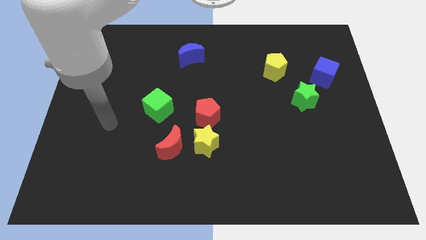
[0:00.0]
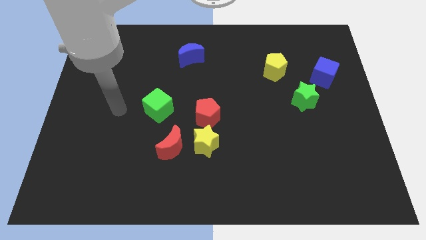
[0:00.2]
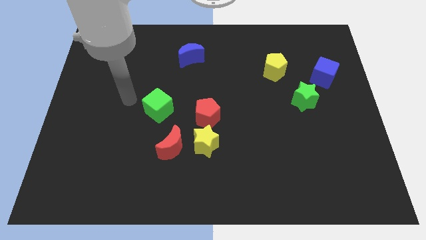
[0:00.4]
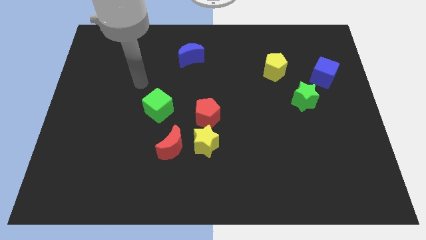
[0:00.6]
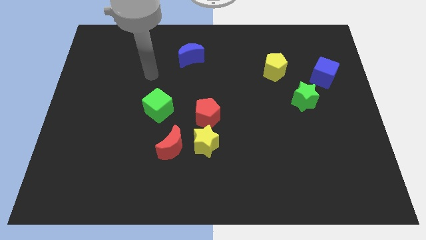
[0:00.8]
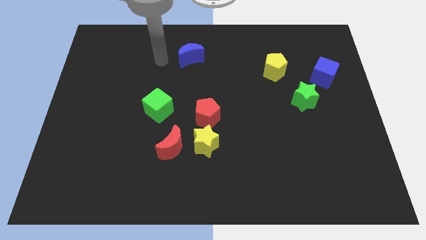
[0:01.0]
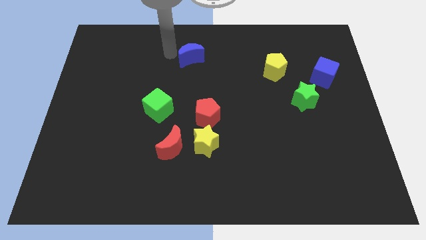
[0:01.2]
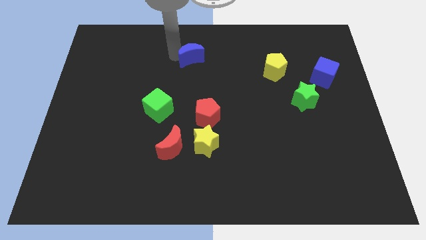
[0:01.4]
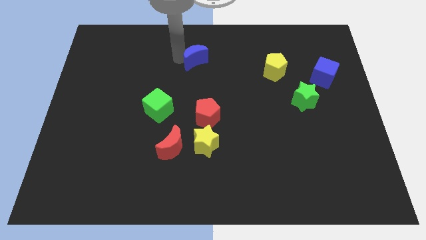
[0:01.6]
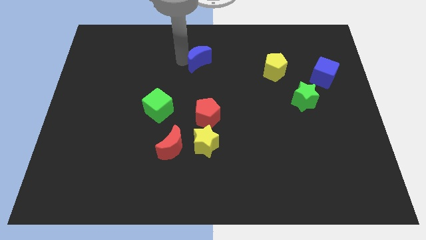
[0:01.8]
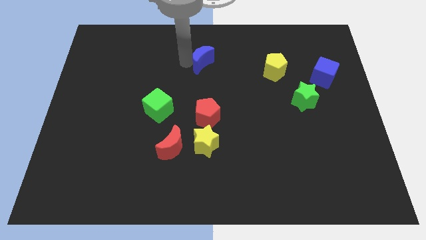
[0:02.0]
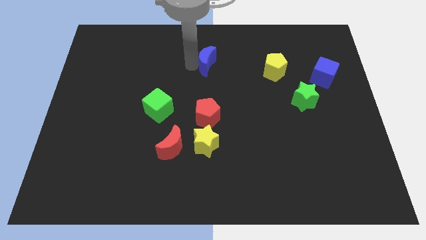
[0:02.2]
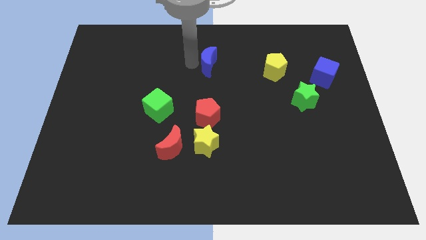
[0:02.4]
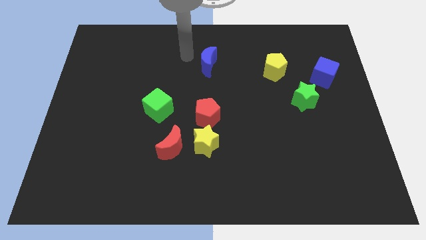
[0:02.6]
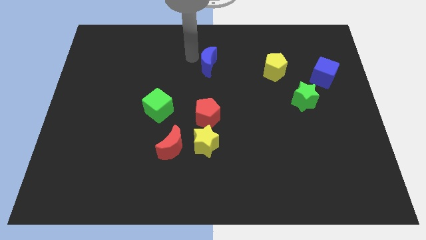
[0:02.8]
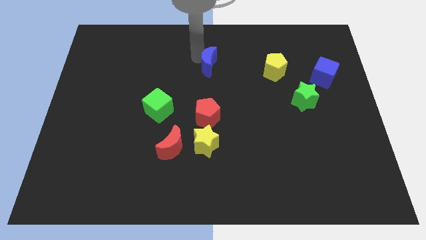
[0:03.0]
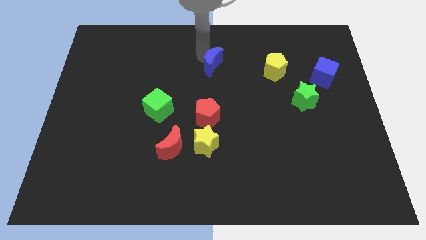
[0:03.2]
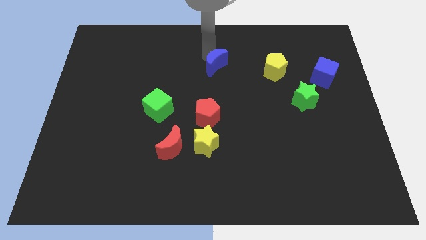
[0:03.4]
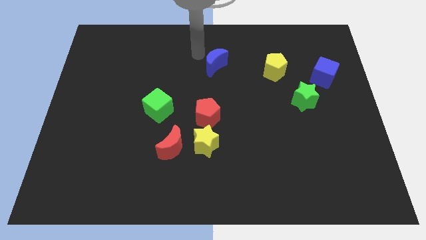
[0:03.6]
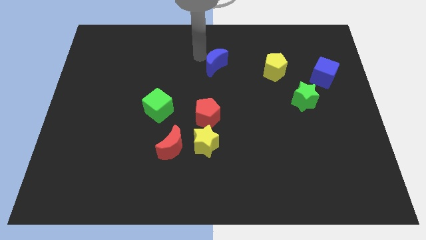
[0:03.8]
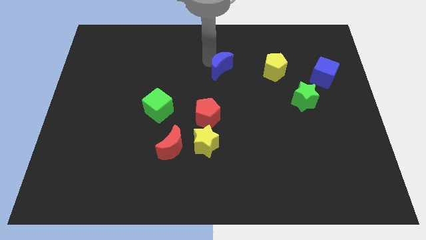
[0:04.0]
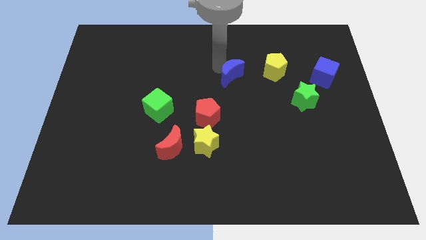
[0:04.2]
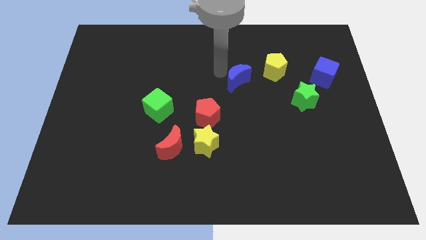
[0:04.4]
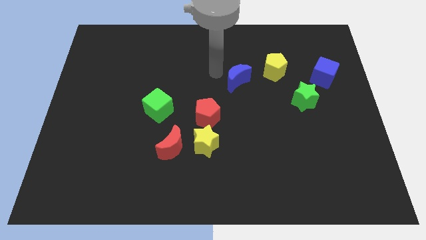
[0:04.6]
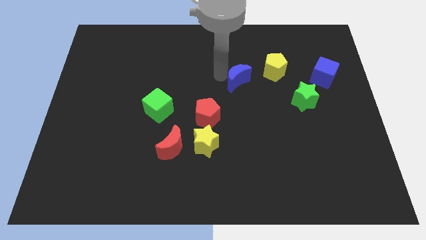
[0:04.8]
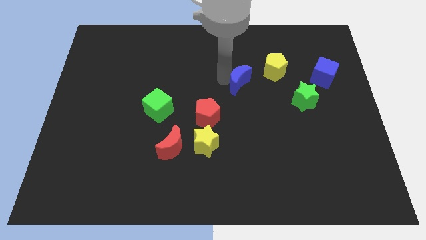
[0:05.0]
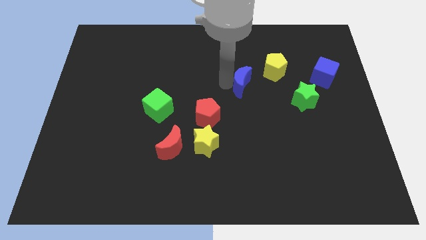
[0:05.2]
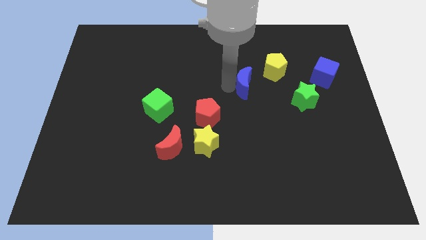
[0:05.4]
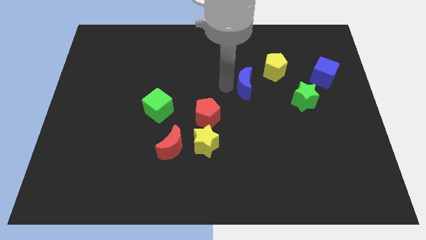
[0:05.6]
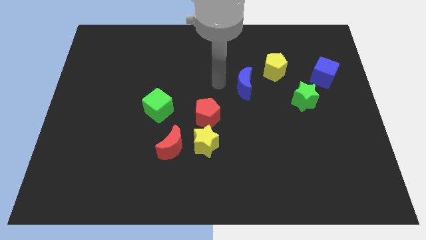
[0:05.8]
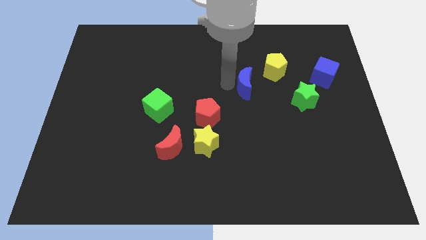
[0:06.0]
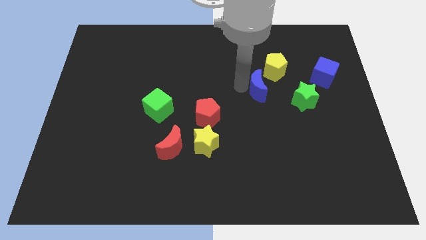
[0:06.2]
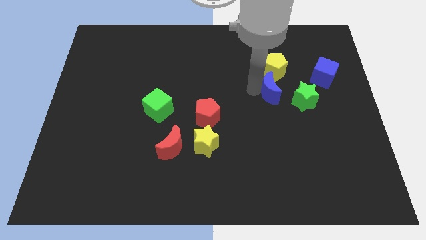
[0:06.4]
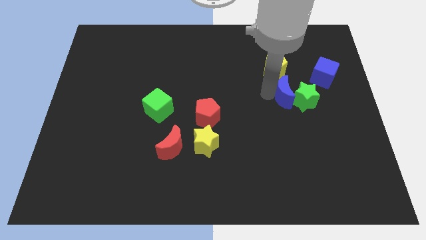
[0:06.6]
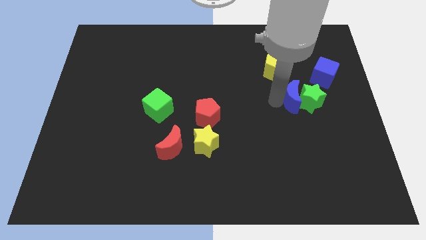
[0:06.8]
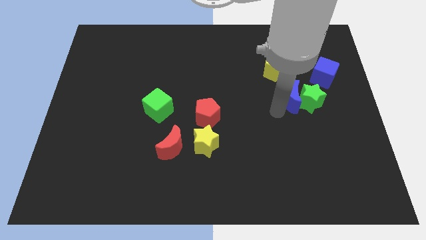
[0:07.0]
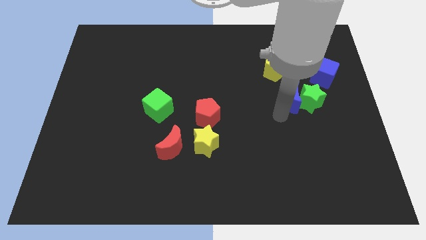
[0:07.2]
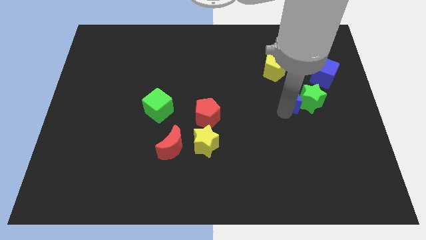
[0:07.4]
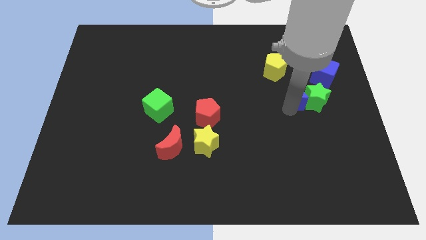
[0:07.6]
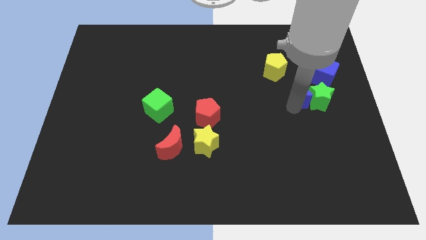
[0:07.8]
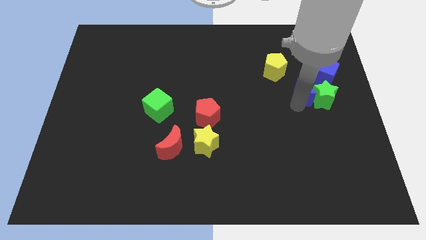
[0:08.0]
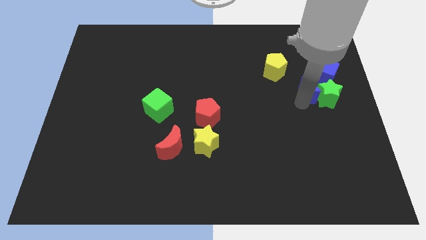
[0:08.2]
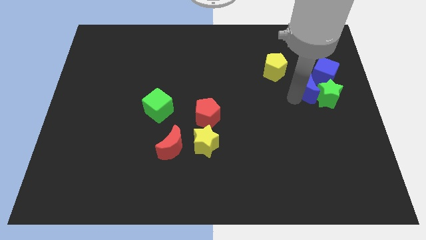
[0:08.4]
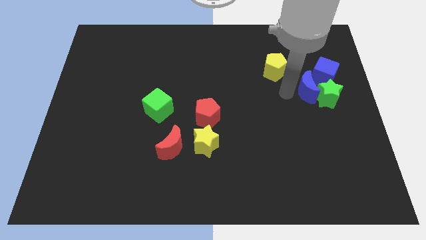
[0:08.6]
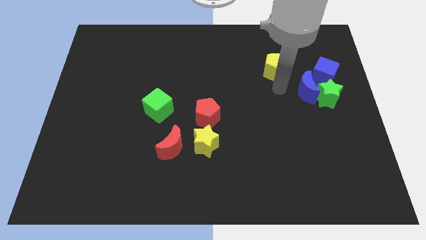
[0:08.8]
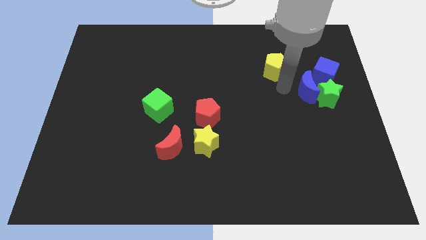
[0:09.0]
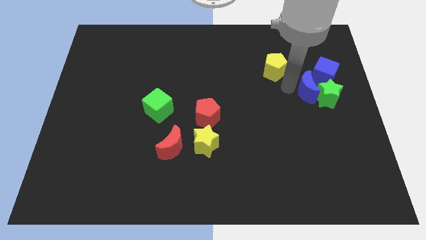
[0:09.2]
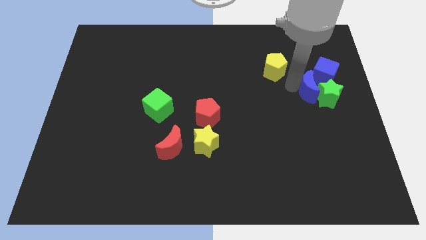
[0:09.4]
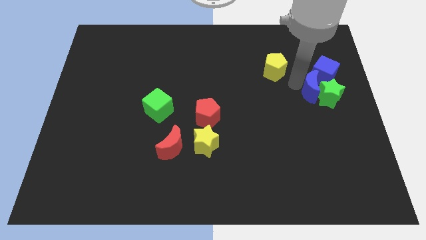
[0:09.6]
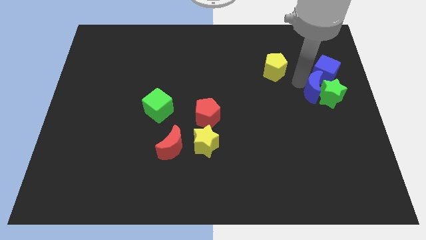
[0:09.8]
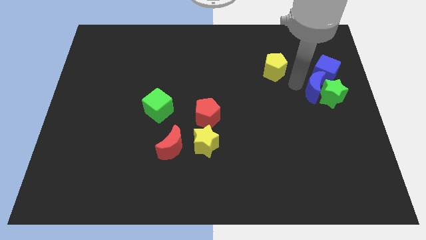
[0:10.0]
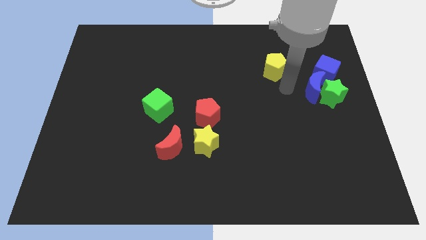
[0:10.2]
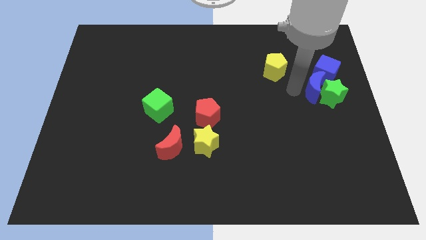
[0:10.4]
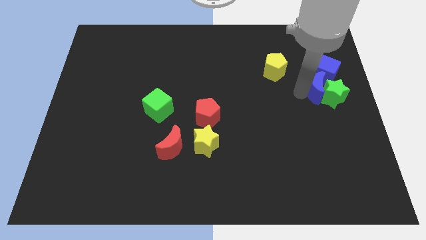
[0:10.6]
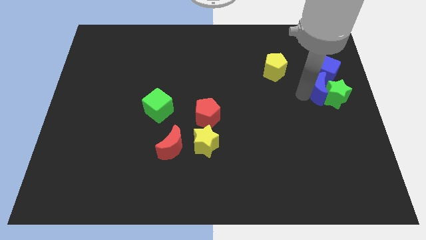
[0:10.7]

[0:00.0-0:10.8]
move the blue moon to the right side

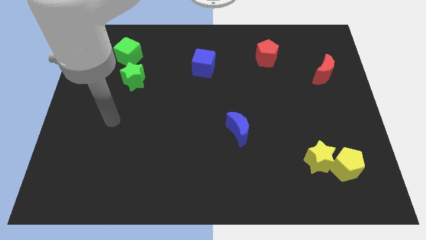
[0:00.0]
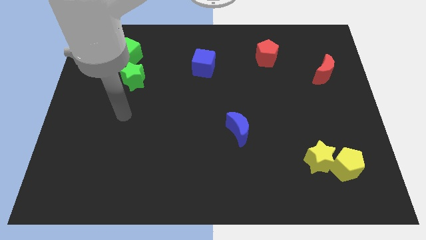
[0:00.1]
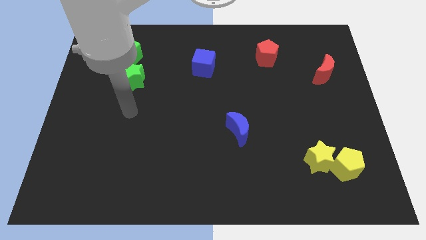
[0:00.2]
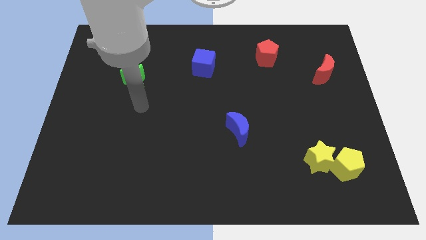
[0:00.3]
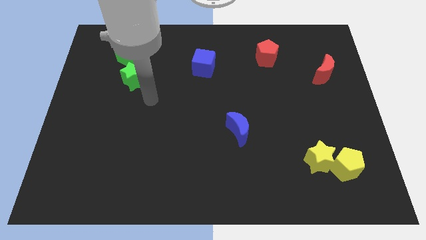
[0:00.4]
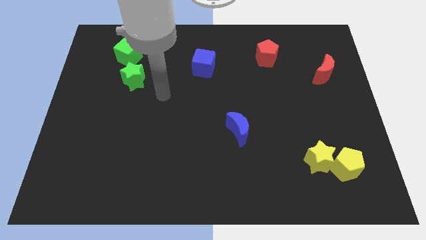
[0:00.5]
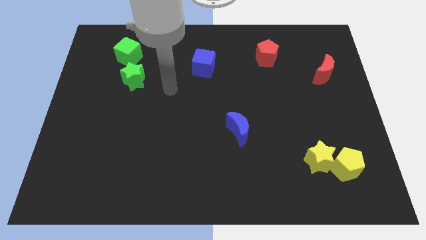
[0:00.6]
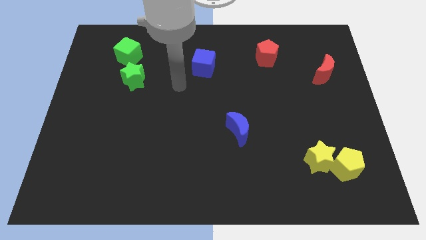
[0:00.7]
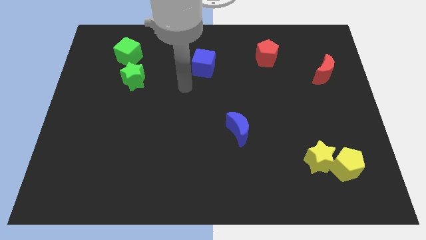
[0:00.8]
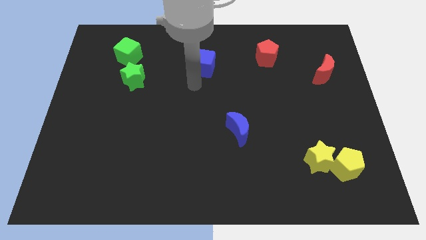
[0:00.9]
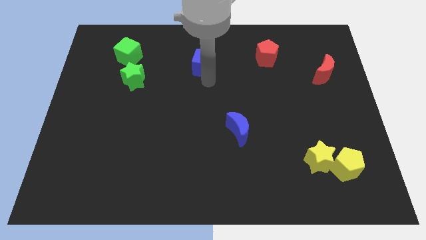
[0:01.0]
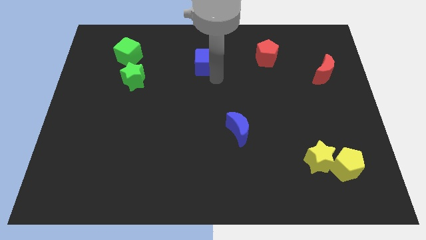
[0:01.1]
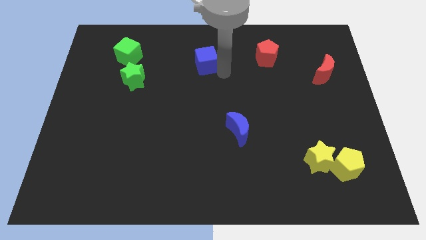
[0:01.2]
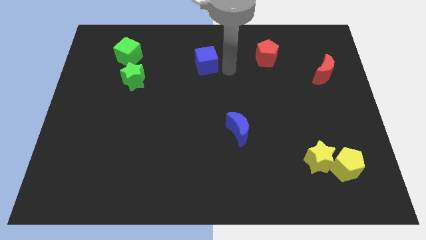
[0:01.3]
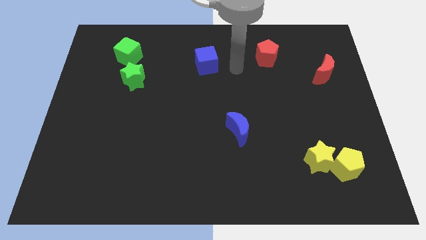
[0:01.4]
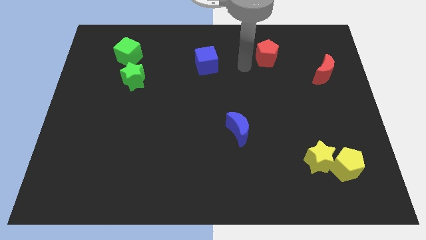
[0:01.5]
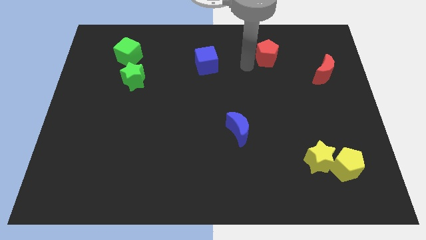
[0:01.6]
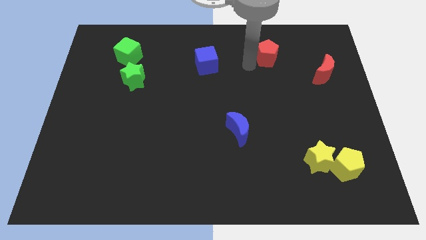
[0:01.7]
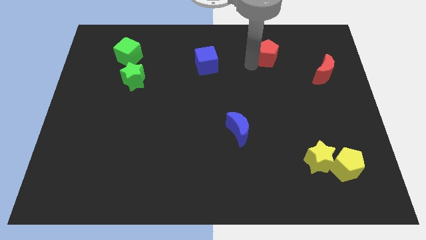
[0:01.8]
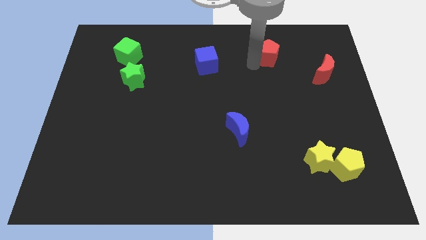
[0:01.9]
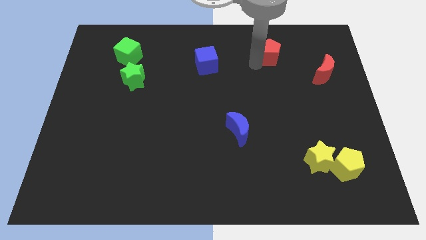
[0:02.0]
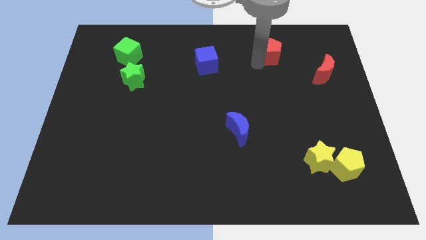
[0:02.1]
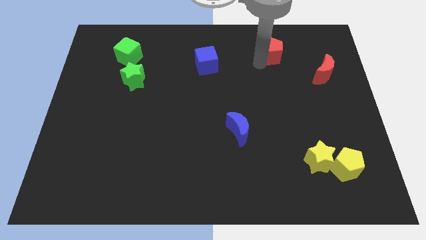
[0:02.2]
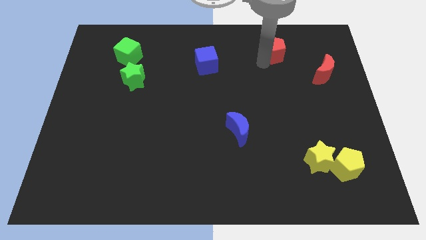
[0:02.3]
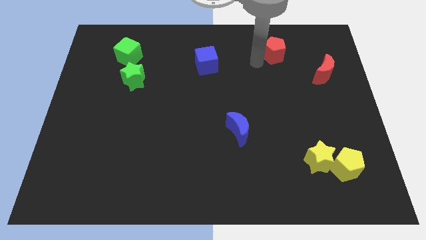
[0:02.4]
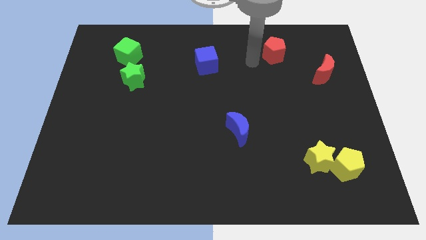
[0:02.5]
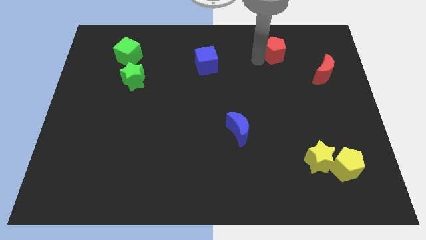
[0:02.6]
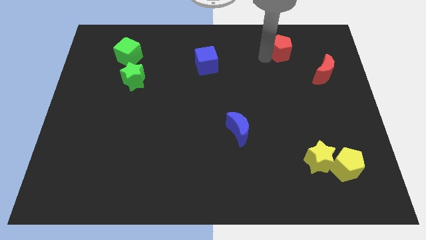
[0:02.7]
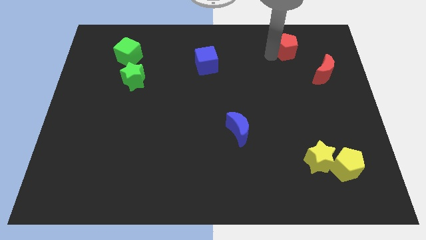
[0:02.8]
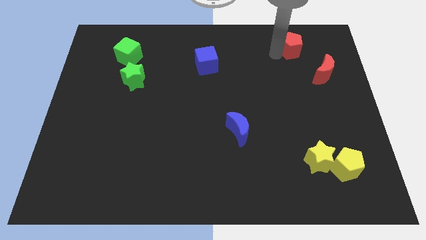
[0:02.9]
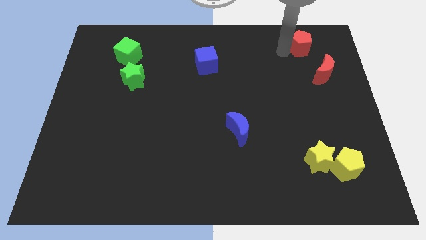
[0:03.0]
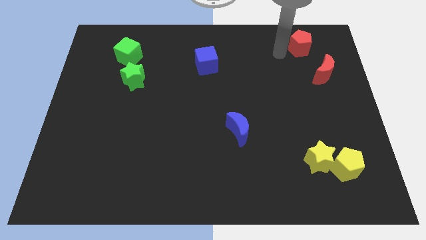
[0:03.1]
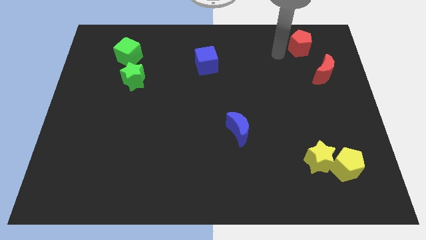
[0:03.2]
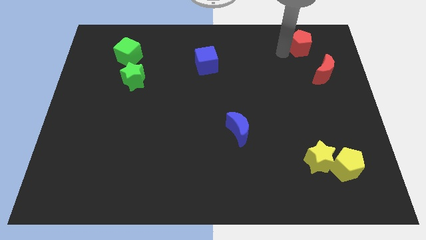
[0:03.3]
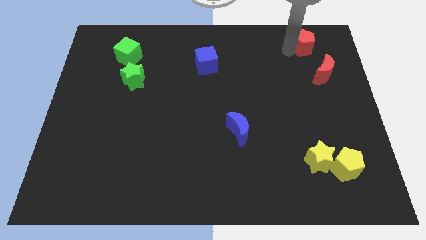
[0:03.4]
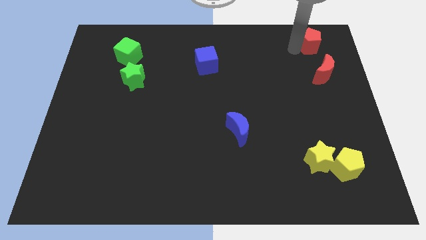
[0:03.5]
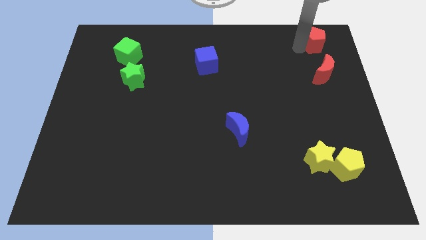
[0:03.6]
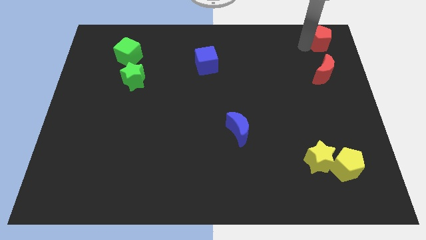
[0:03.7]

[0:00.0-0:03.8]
push the red pentagon to the top right corner
